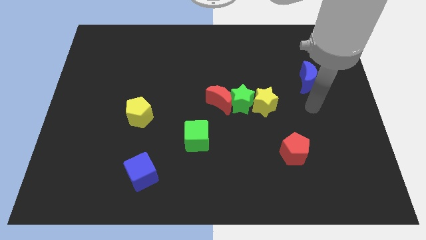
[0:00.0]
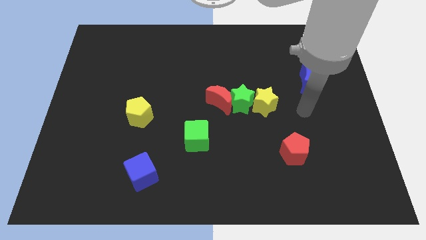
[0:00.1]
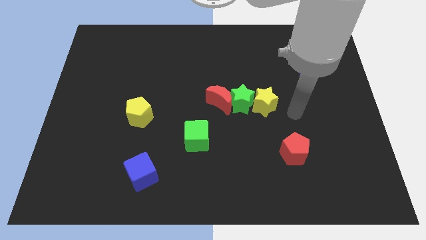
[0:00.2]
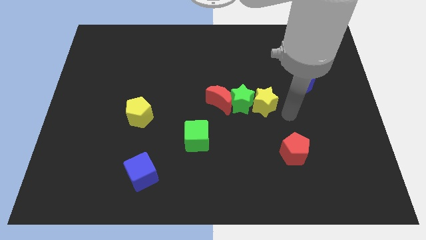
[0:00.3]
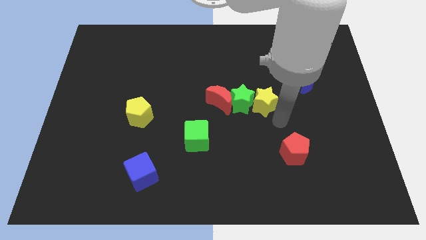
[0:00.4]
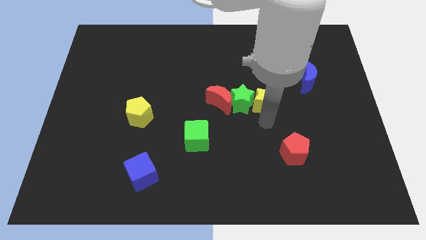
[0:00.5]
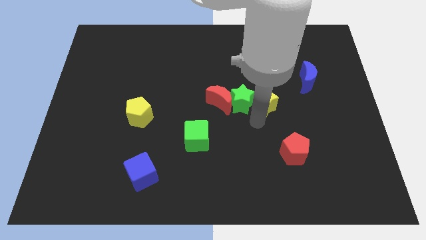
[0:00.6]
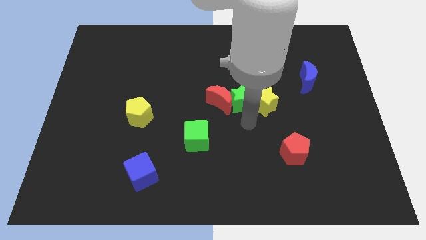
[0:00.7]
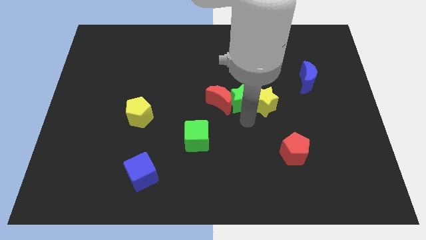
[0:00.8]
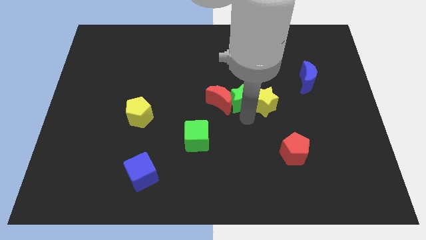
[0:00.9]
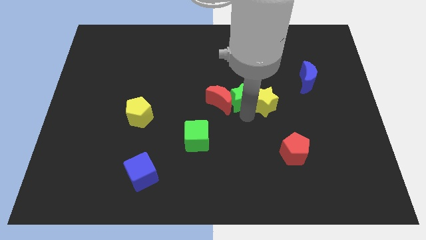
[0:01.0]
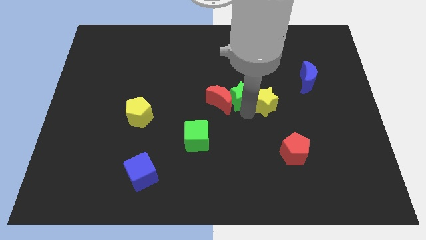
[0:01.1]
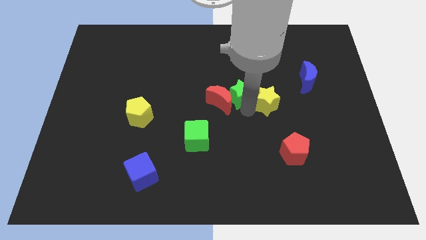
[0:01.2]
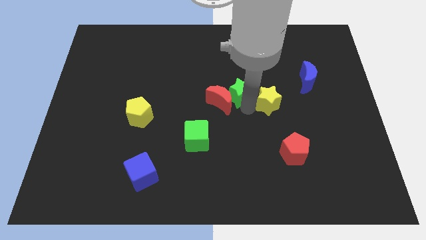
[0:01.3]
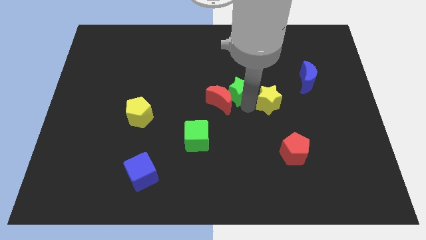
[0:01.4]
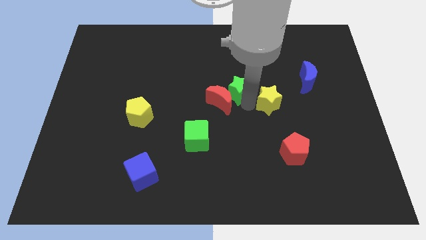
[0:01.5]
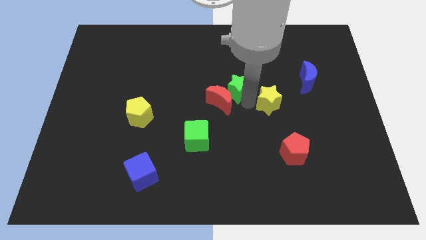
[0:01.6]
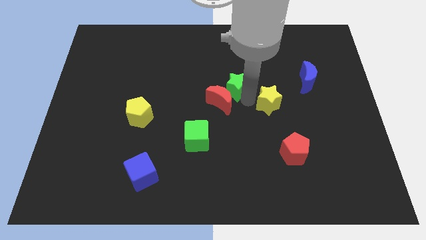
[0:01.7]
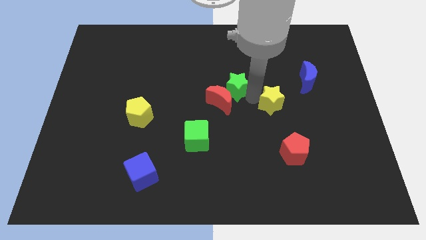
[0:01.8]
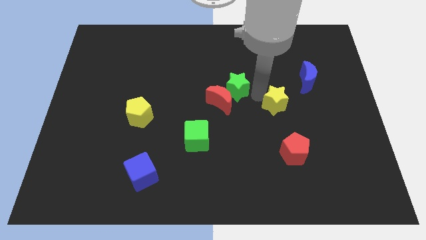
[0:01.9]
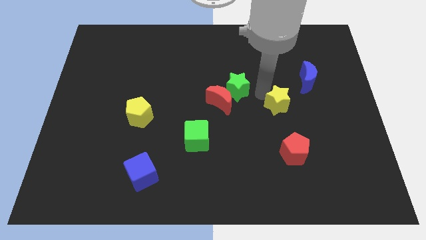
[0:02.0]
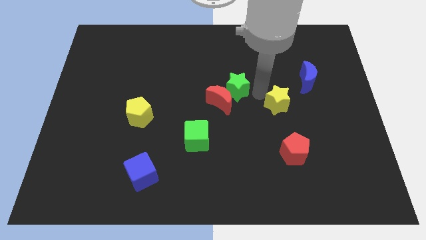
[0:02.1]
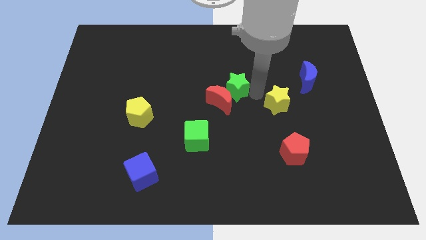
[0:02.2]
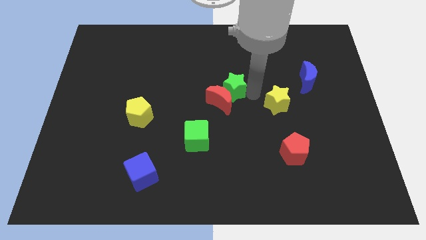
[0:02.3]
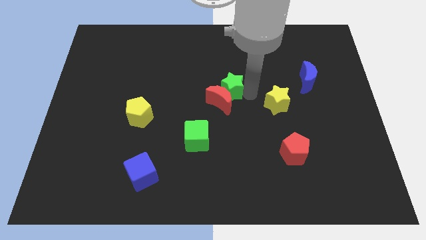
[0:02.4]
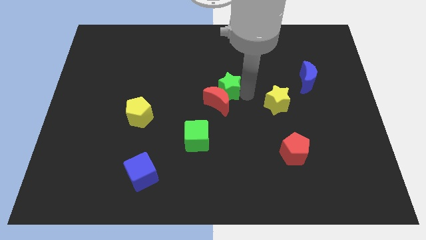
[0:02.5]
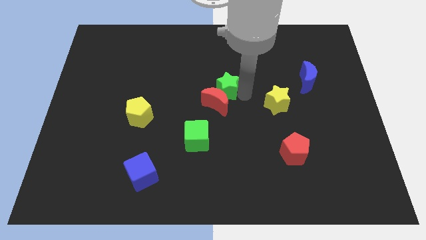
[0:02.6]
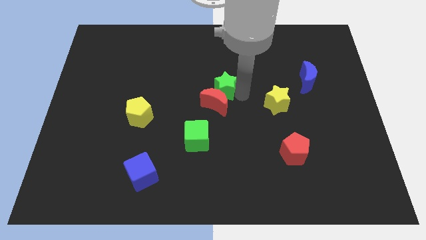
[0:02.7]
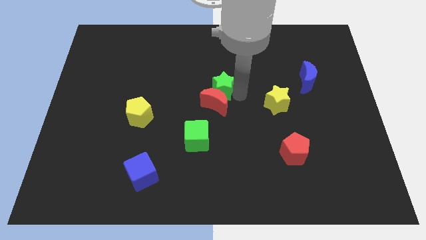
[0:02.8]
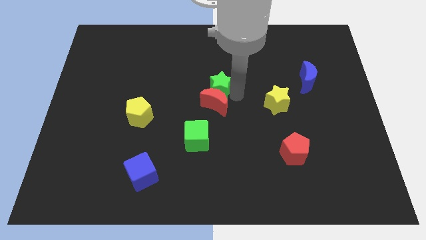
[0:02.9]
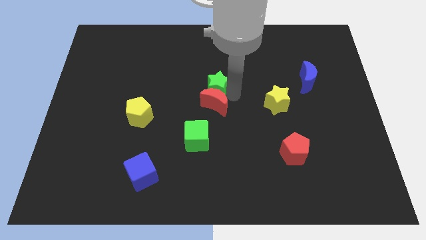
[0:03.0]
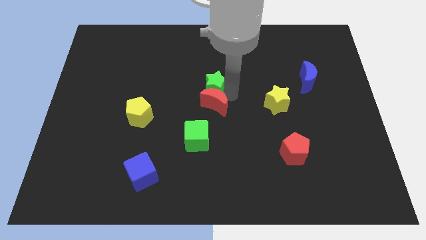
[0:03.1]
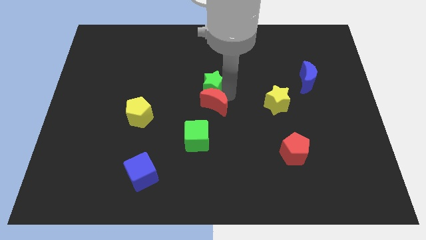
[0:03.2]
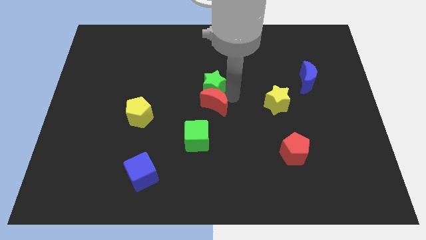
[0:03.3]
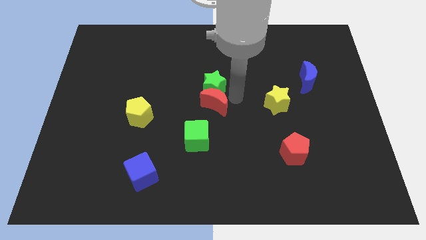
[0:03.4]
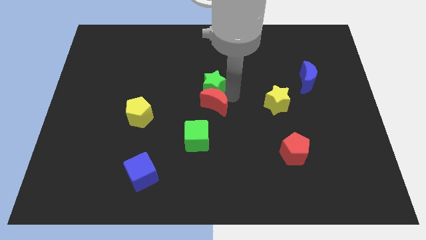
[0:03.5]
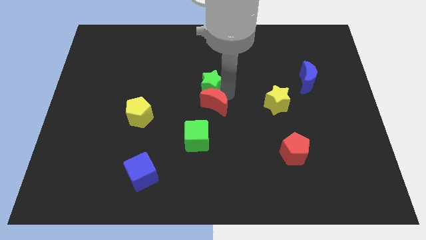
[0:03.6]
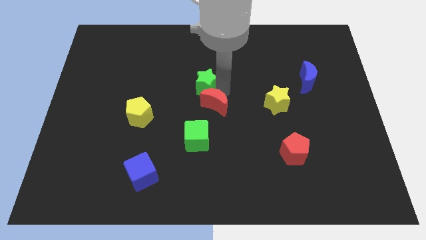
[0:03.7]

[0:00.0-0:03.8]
move the green star away from the red moon and yellow star

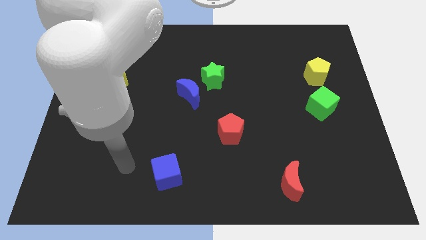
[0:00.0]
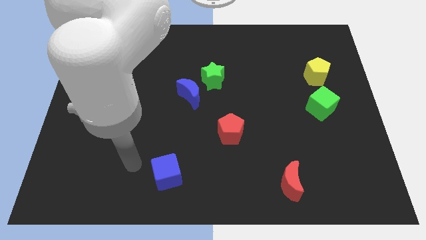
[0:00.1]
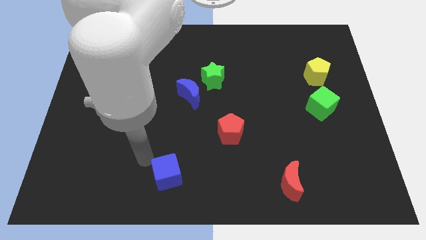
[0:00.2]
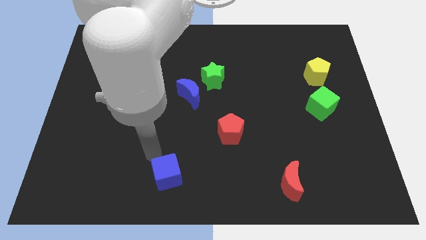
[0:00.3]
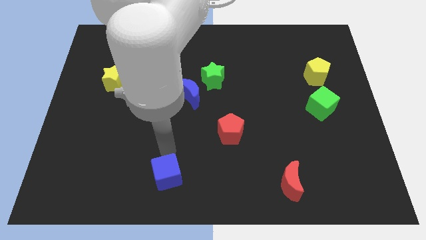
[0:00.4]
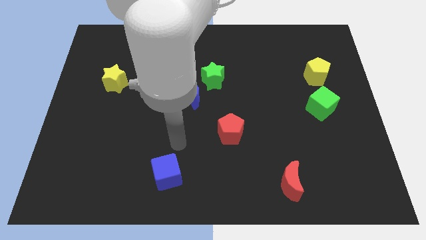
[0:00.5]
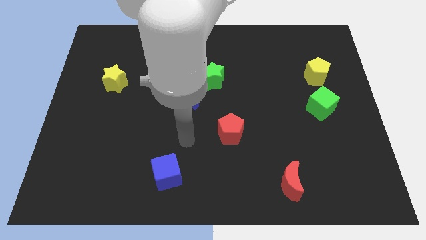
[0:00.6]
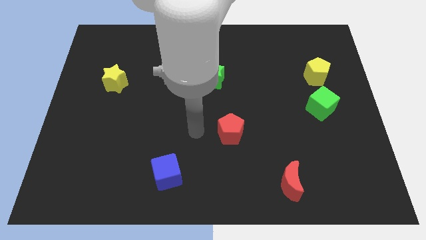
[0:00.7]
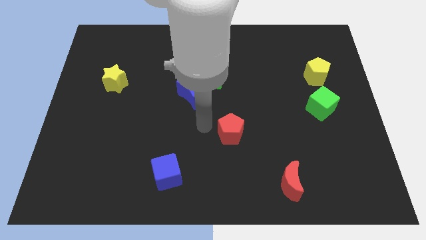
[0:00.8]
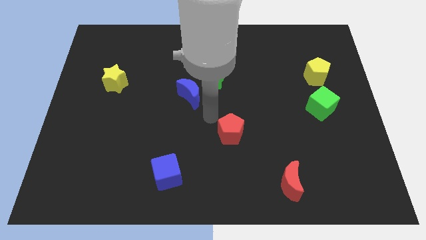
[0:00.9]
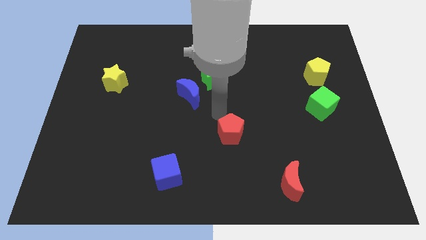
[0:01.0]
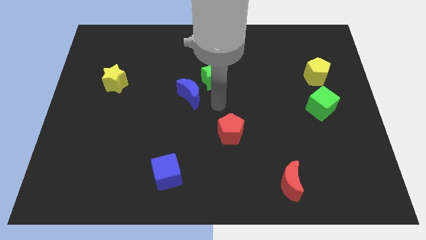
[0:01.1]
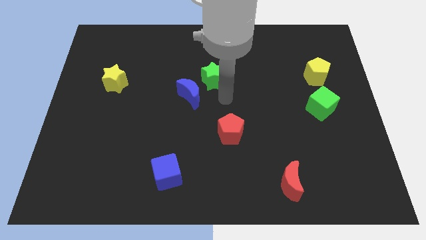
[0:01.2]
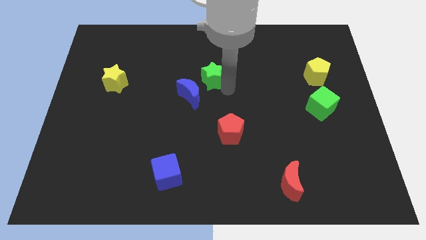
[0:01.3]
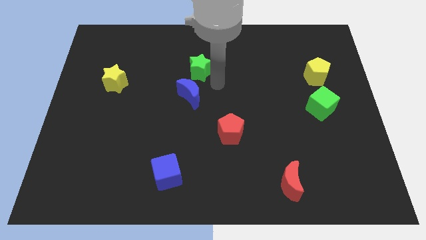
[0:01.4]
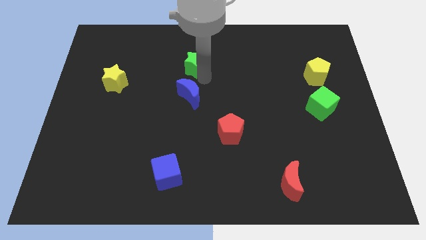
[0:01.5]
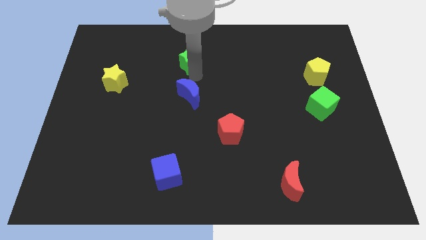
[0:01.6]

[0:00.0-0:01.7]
separate the blue moon from the green star

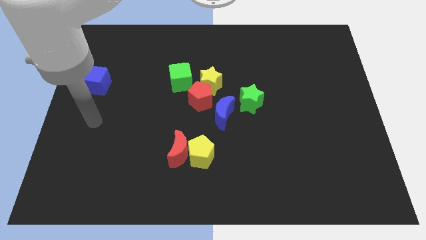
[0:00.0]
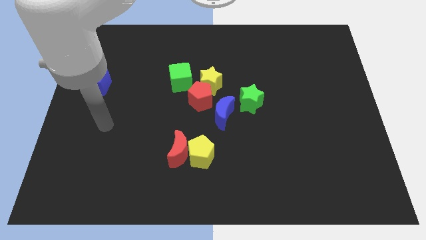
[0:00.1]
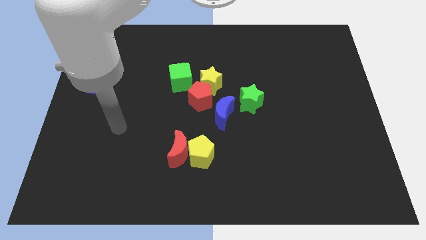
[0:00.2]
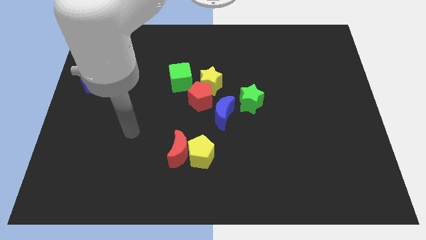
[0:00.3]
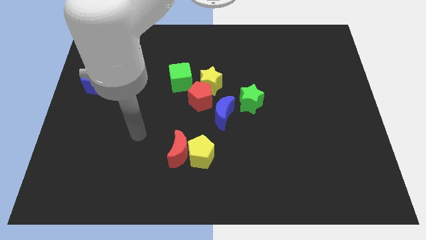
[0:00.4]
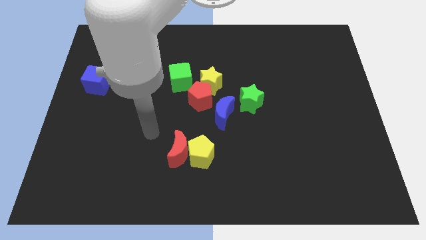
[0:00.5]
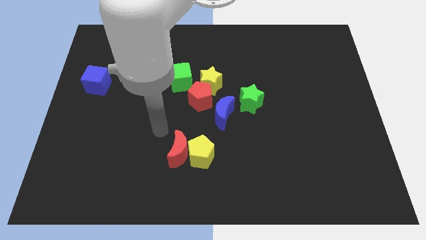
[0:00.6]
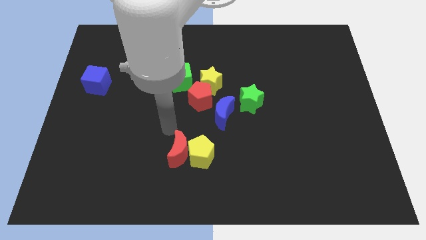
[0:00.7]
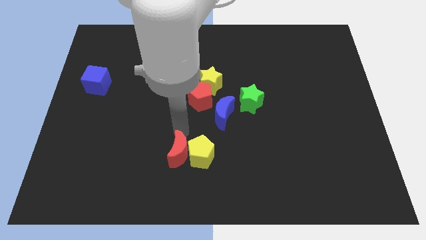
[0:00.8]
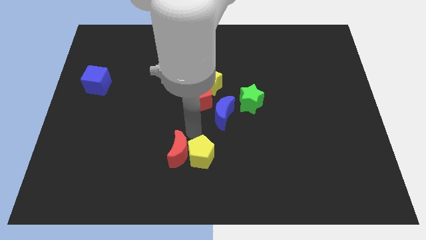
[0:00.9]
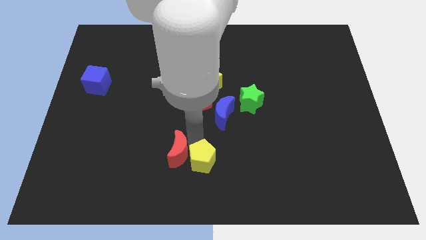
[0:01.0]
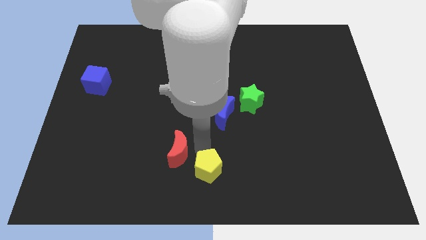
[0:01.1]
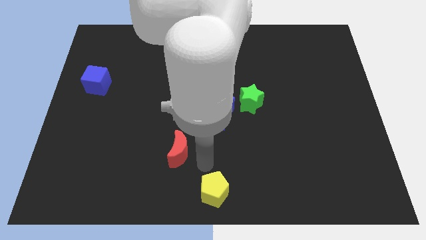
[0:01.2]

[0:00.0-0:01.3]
move the red moon away from the yellow pentagon

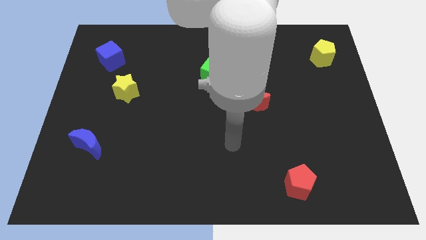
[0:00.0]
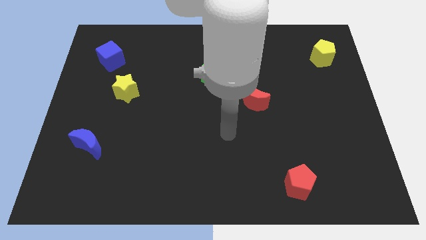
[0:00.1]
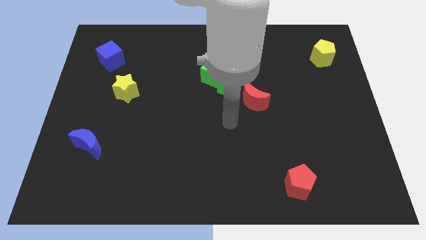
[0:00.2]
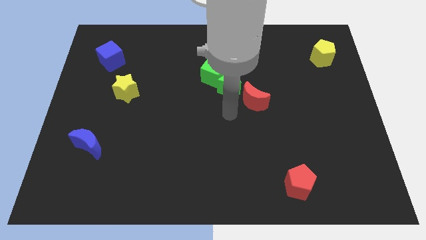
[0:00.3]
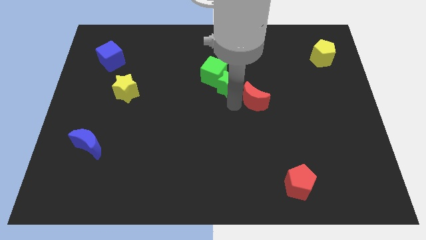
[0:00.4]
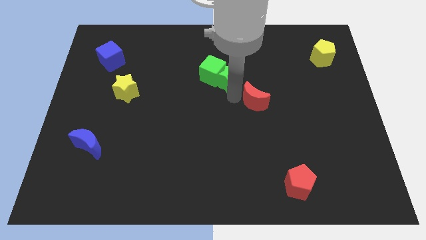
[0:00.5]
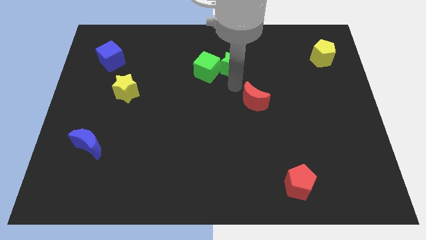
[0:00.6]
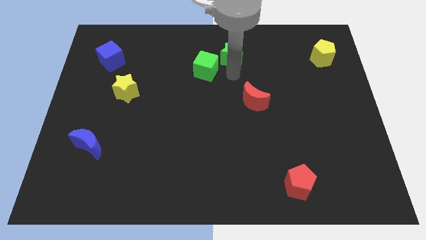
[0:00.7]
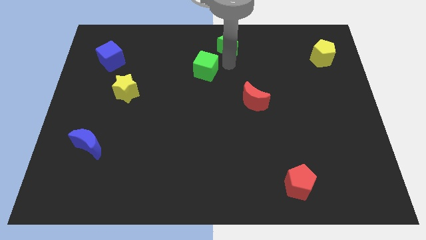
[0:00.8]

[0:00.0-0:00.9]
pull the green cube apart from the green star

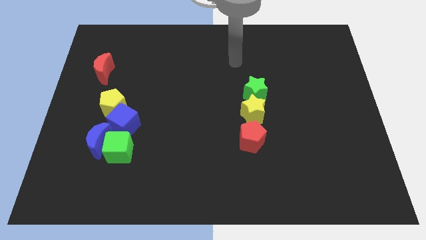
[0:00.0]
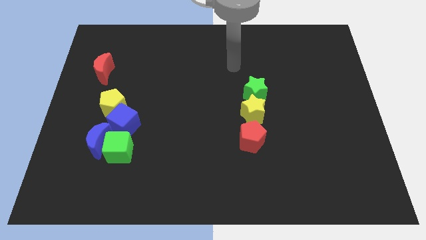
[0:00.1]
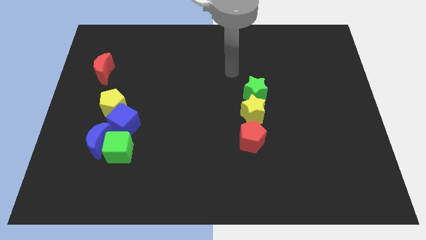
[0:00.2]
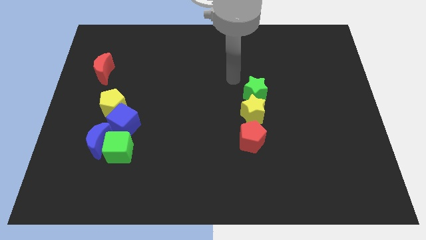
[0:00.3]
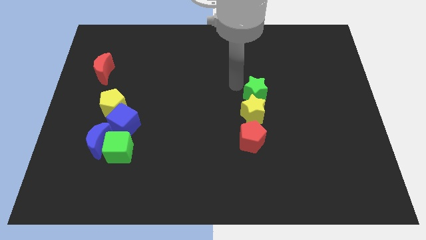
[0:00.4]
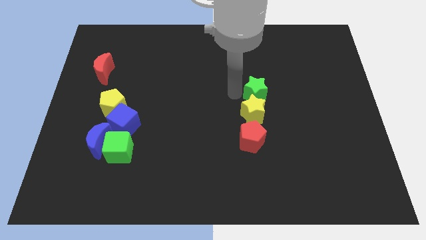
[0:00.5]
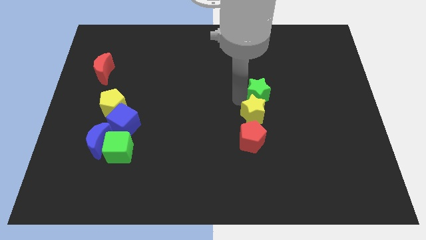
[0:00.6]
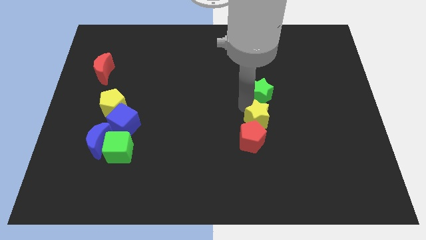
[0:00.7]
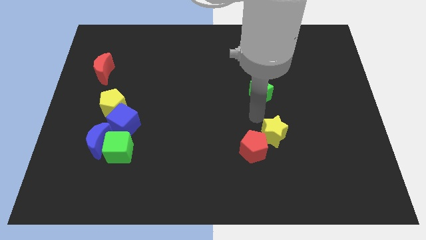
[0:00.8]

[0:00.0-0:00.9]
move the green star away from the yellow star

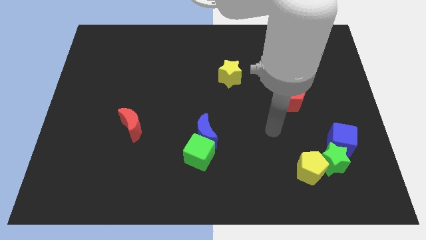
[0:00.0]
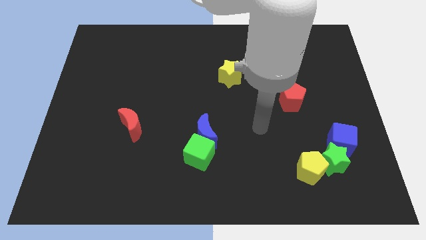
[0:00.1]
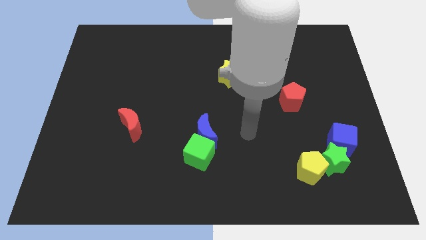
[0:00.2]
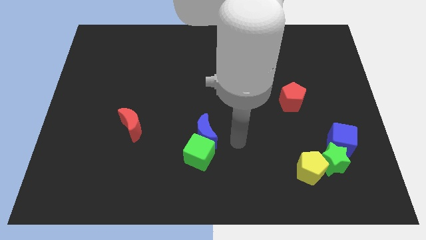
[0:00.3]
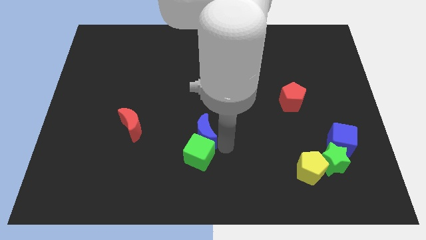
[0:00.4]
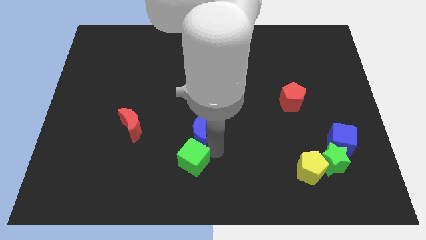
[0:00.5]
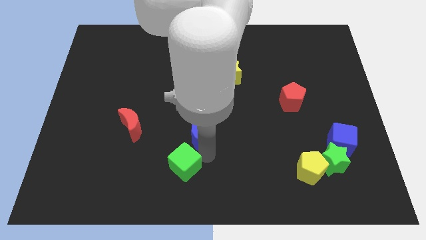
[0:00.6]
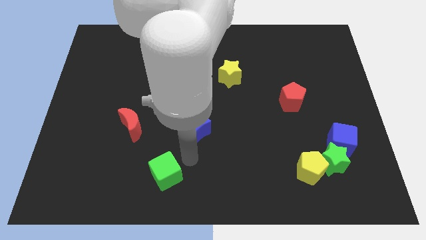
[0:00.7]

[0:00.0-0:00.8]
pull the blue moon apart from the green cube
